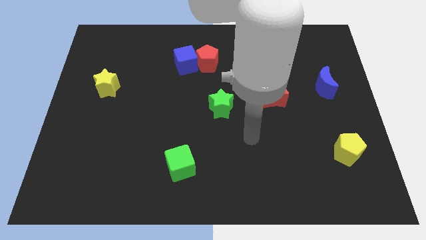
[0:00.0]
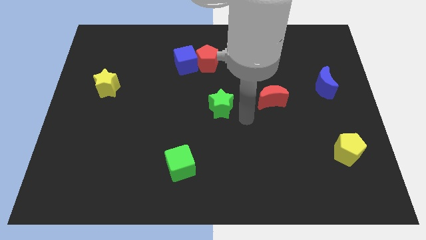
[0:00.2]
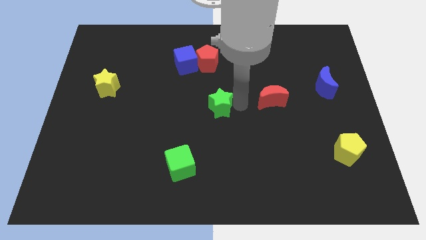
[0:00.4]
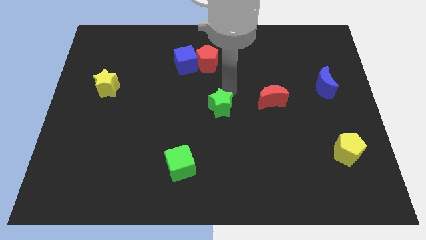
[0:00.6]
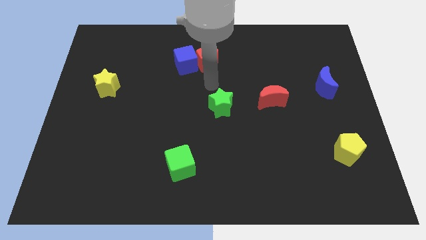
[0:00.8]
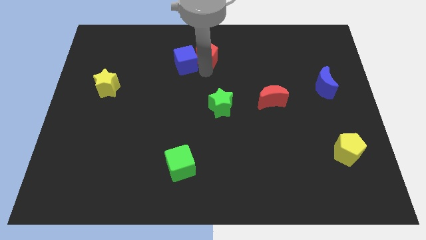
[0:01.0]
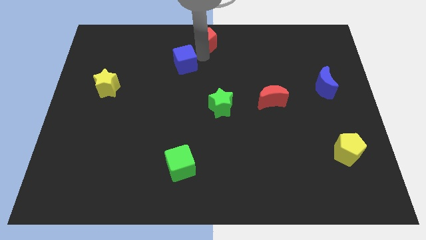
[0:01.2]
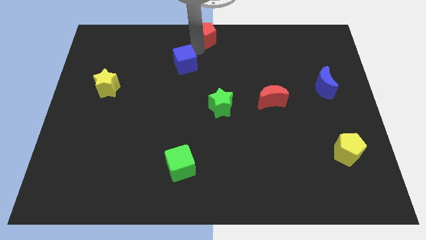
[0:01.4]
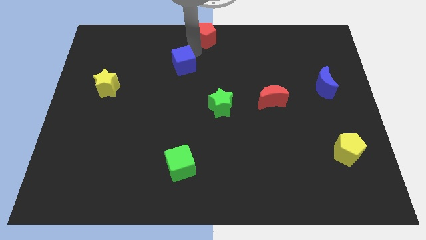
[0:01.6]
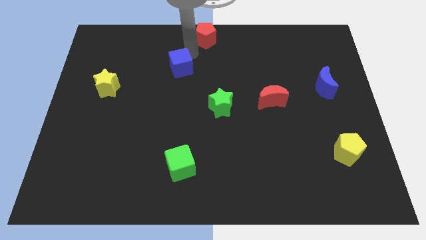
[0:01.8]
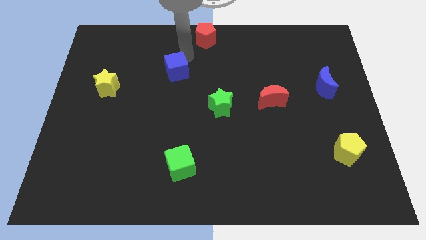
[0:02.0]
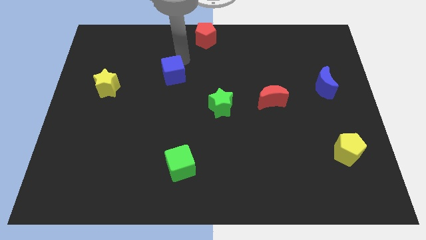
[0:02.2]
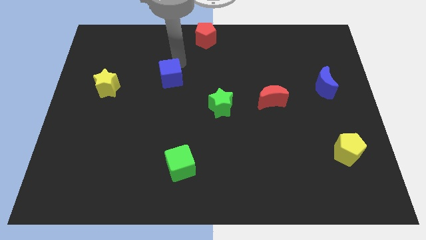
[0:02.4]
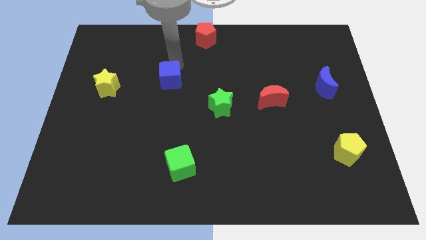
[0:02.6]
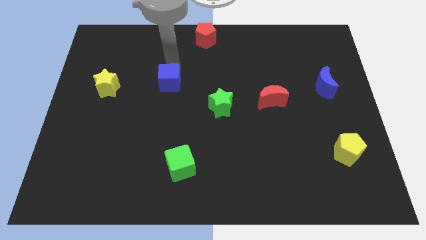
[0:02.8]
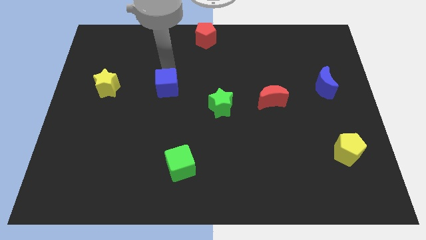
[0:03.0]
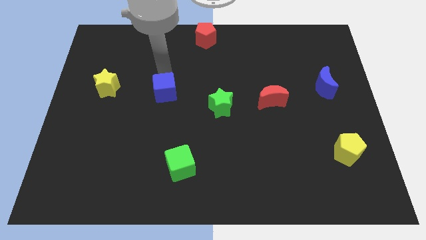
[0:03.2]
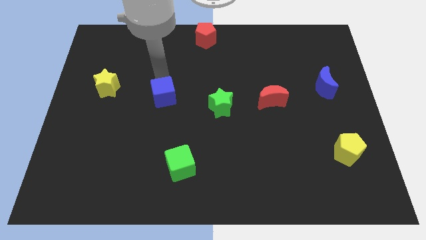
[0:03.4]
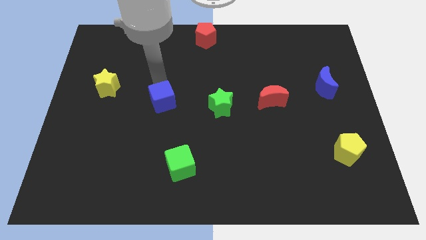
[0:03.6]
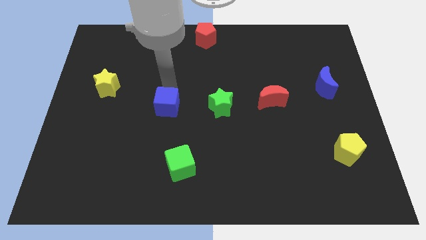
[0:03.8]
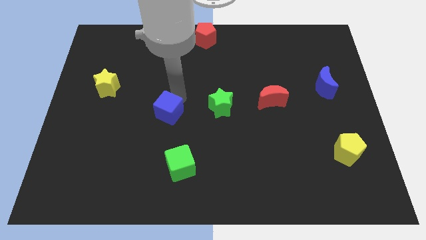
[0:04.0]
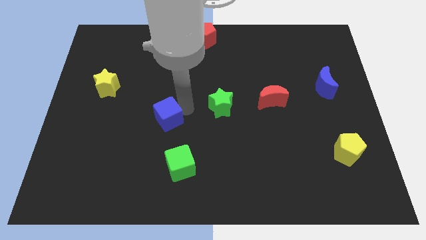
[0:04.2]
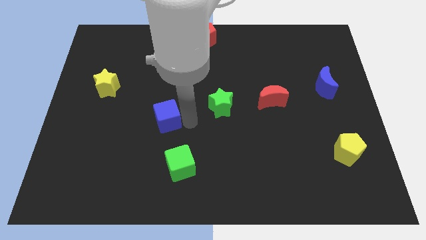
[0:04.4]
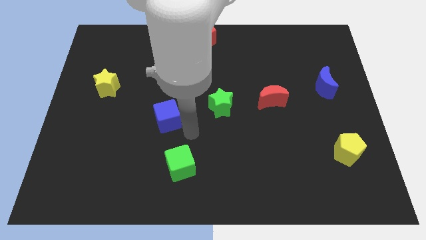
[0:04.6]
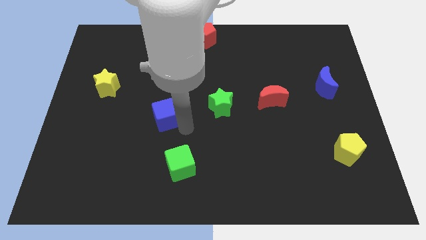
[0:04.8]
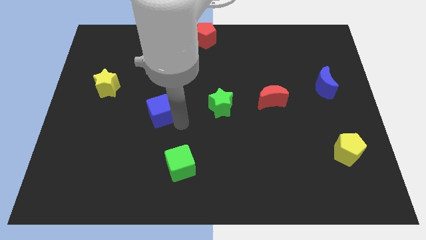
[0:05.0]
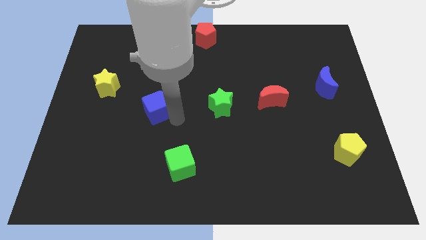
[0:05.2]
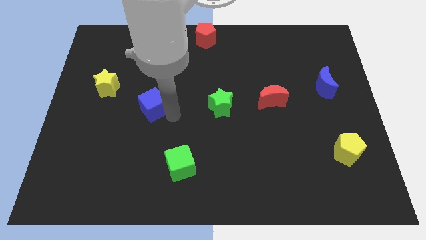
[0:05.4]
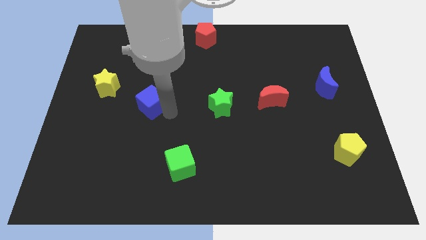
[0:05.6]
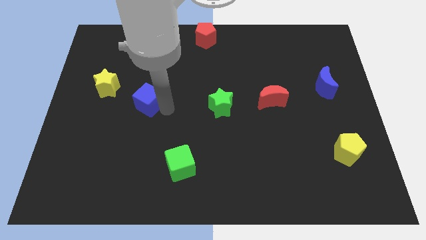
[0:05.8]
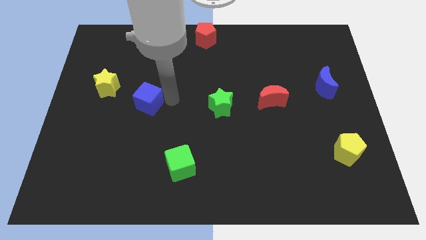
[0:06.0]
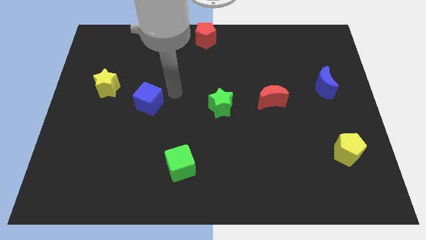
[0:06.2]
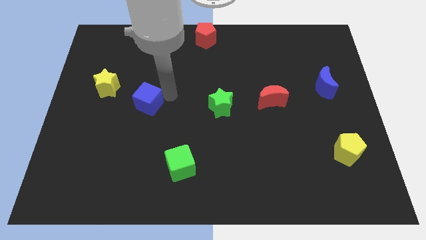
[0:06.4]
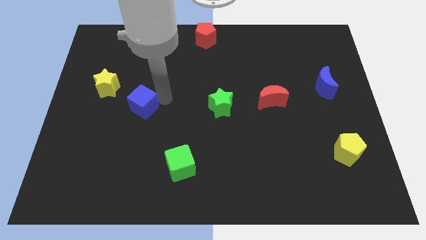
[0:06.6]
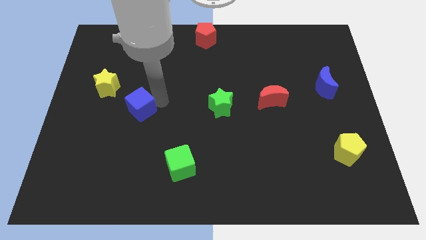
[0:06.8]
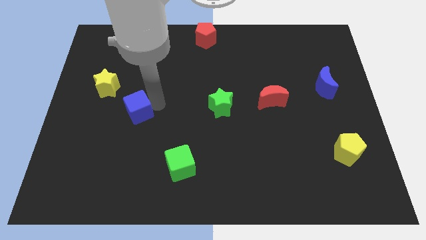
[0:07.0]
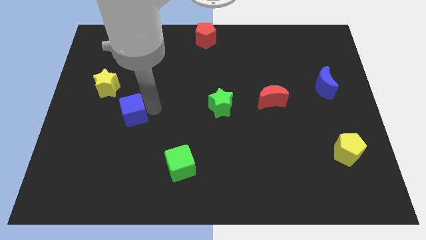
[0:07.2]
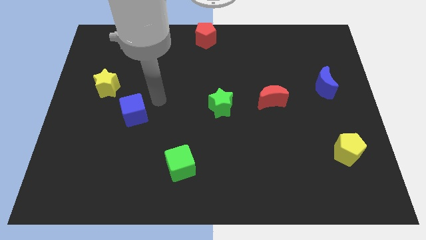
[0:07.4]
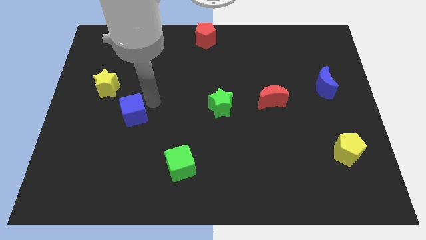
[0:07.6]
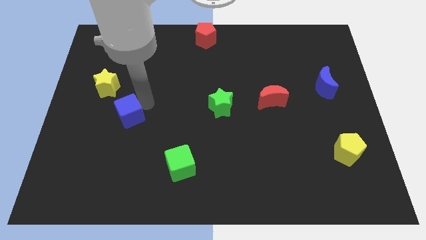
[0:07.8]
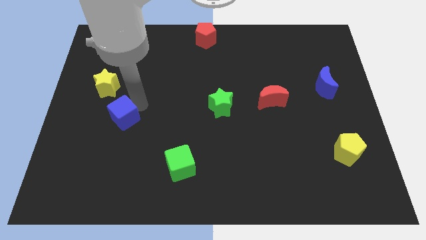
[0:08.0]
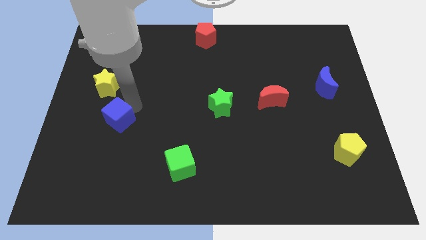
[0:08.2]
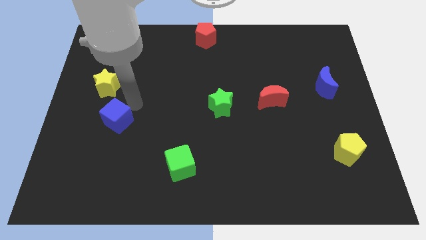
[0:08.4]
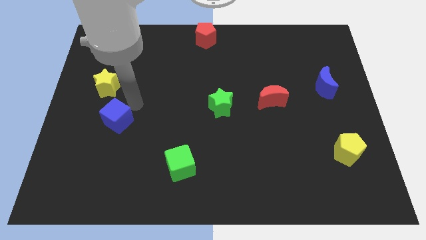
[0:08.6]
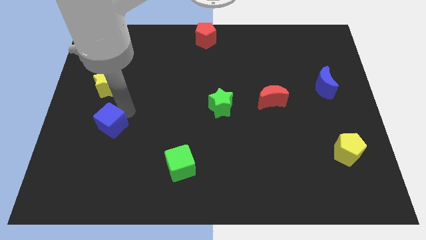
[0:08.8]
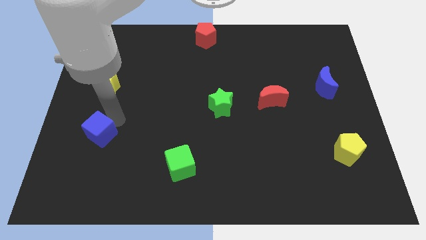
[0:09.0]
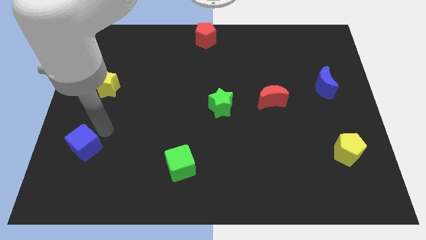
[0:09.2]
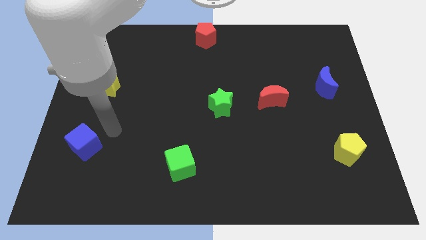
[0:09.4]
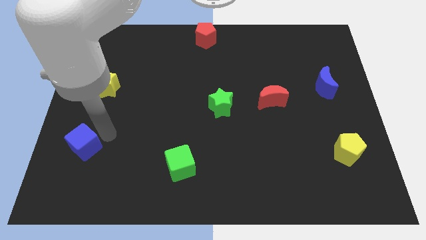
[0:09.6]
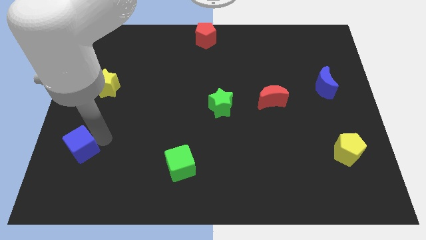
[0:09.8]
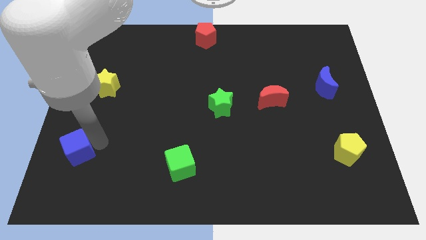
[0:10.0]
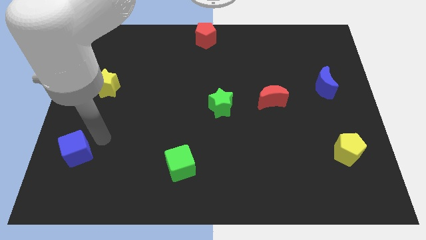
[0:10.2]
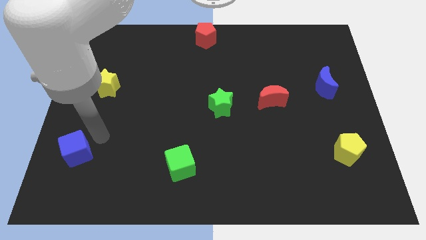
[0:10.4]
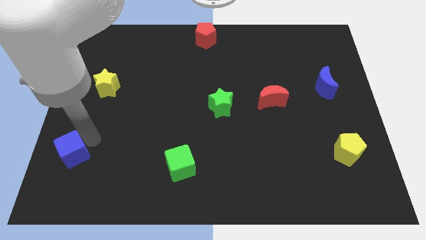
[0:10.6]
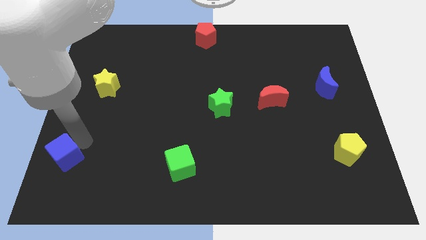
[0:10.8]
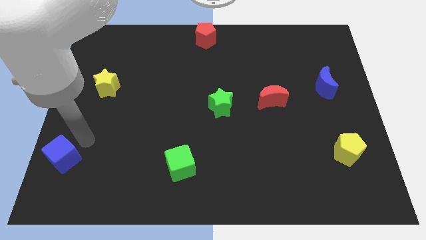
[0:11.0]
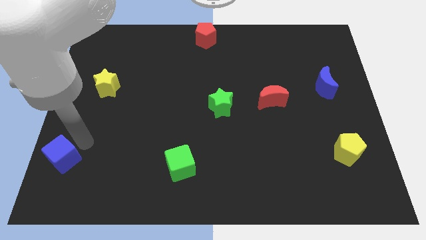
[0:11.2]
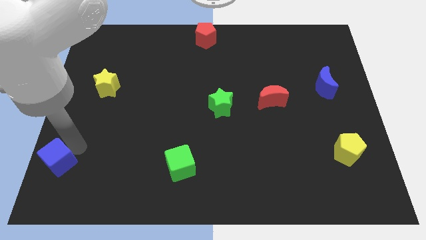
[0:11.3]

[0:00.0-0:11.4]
push the blue cube to the bottom left

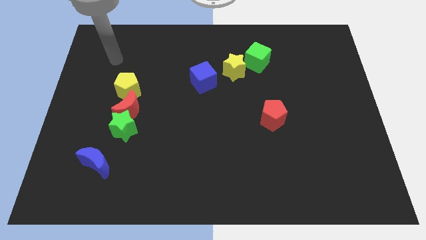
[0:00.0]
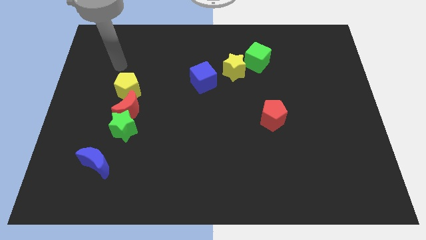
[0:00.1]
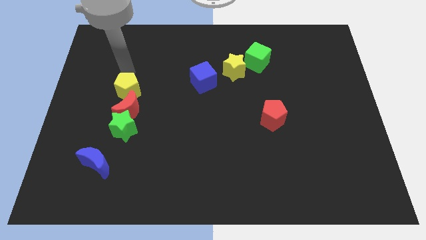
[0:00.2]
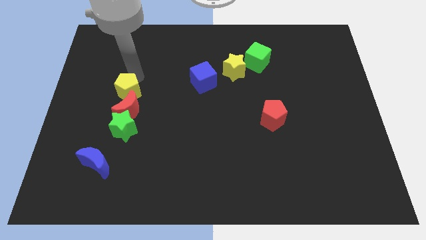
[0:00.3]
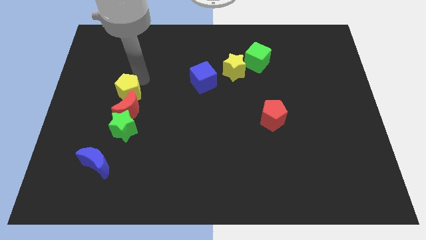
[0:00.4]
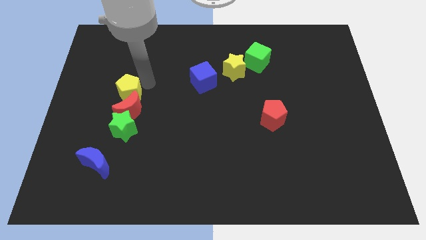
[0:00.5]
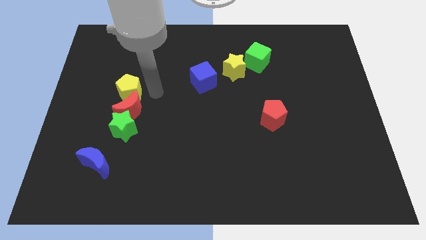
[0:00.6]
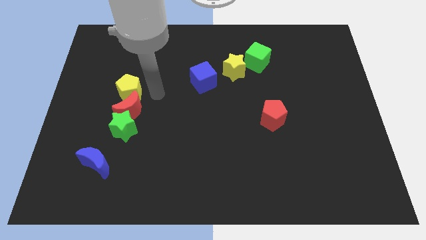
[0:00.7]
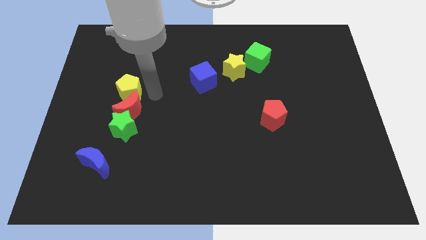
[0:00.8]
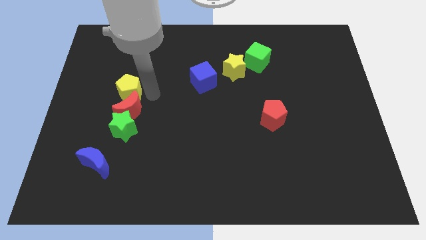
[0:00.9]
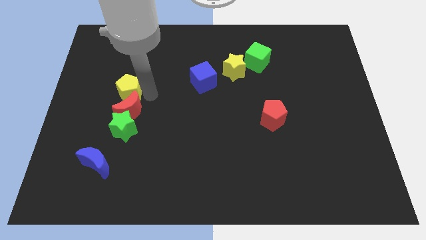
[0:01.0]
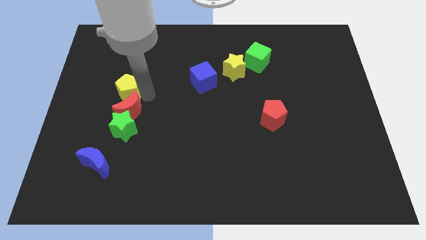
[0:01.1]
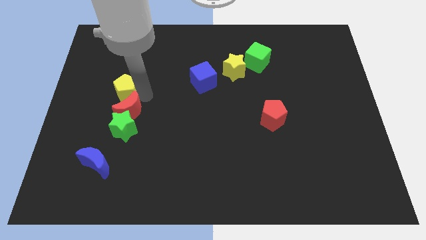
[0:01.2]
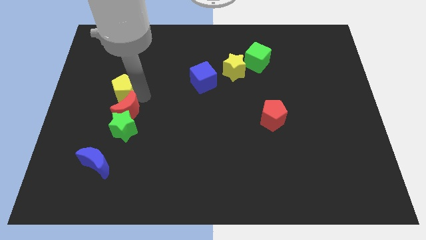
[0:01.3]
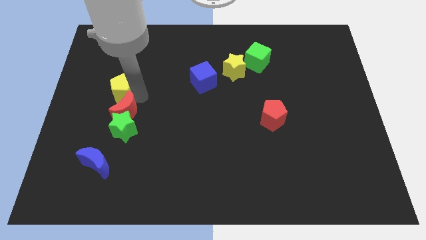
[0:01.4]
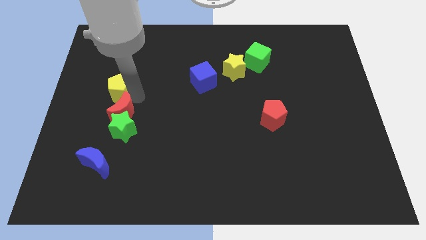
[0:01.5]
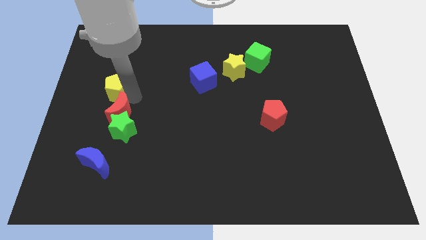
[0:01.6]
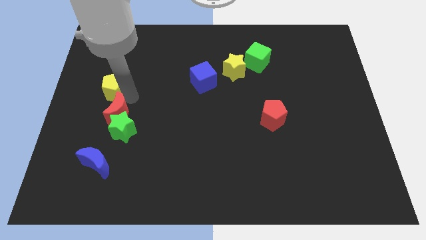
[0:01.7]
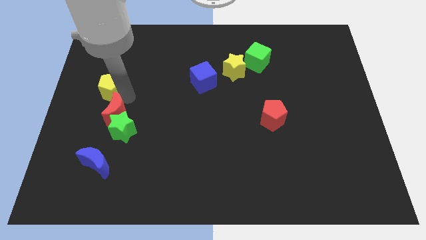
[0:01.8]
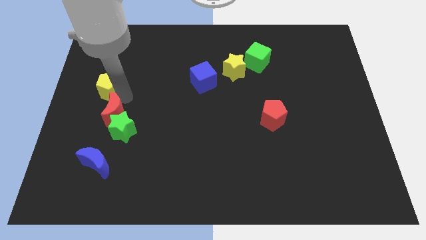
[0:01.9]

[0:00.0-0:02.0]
slide the yellow pentagon to the left side
